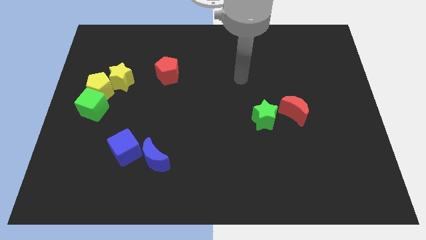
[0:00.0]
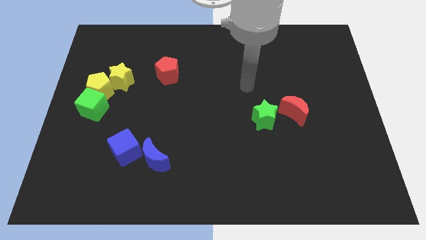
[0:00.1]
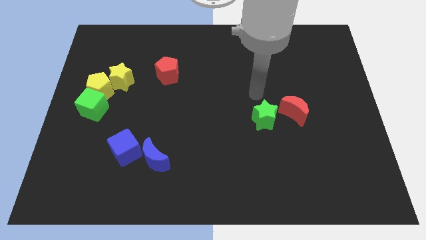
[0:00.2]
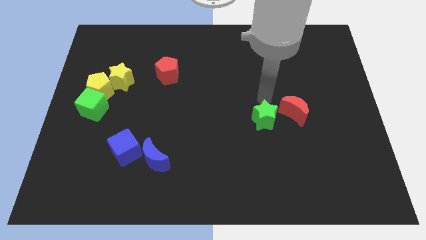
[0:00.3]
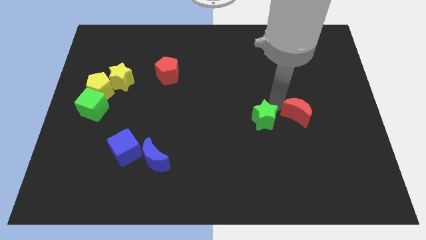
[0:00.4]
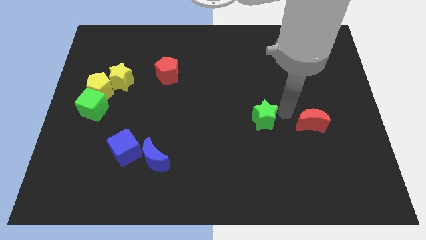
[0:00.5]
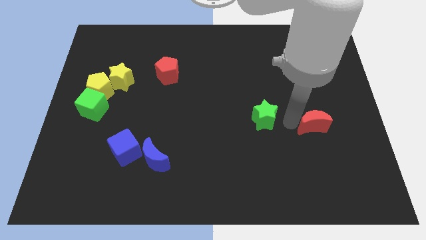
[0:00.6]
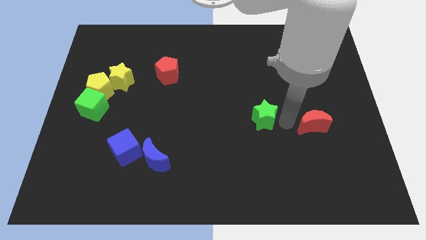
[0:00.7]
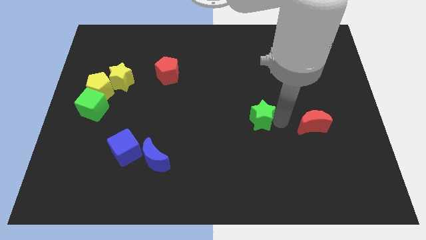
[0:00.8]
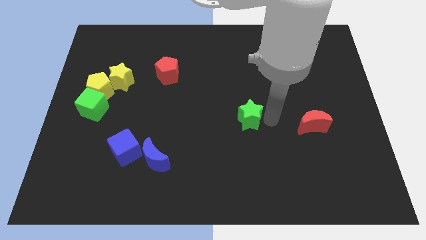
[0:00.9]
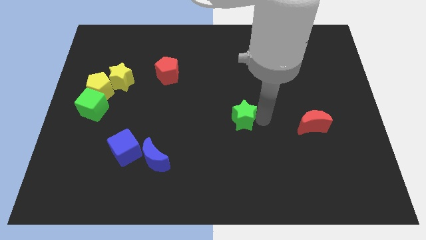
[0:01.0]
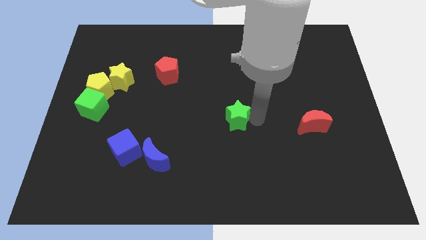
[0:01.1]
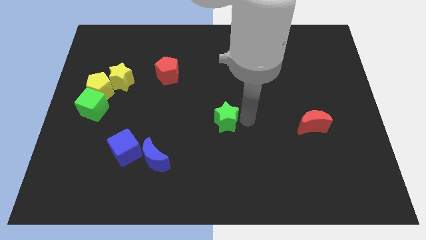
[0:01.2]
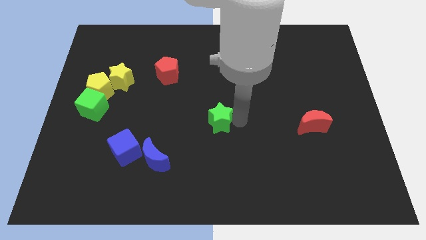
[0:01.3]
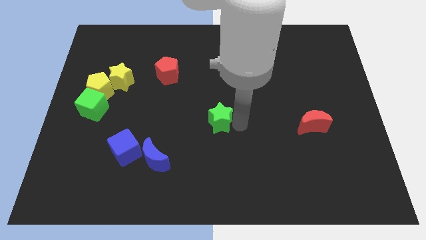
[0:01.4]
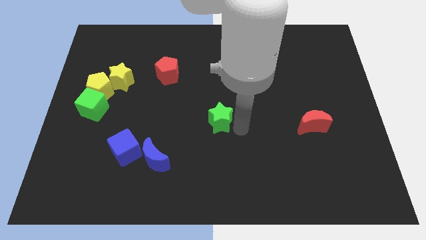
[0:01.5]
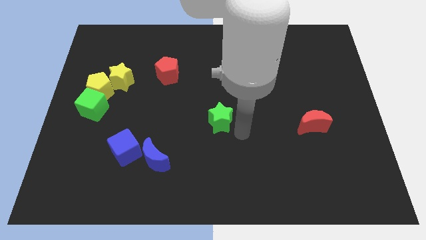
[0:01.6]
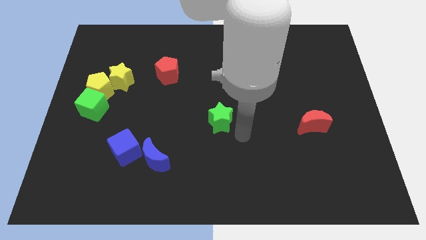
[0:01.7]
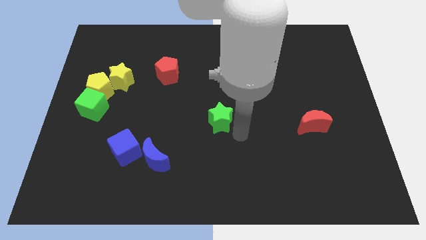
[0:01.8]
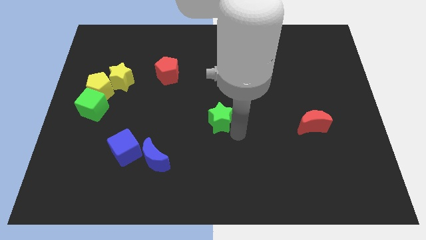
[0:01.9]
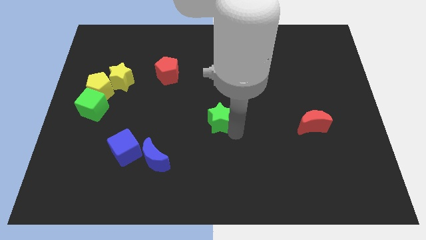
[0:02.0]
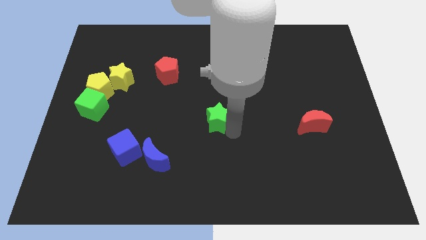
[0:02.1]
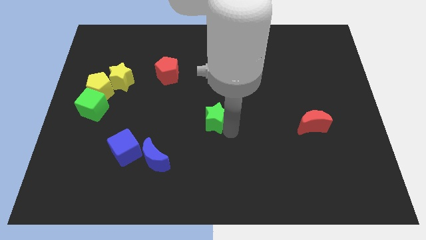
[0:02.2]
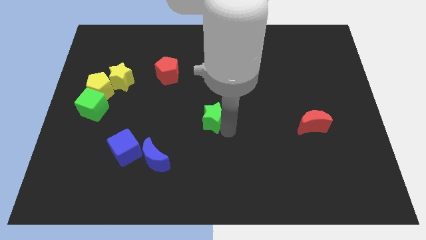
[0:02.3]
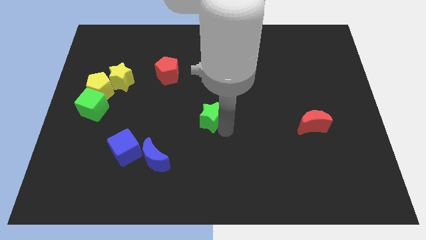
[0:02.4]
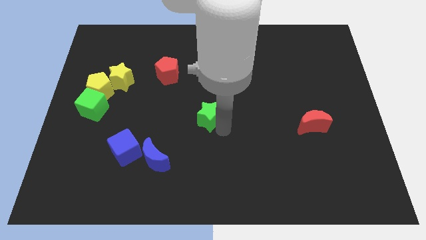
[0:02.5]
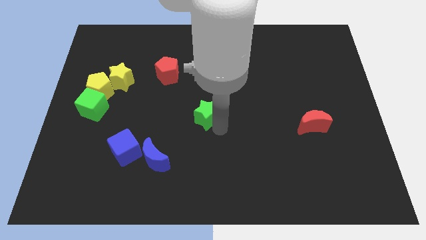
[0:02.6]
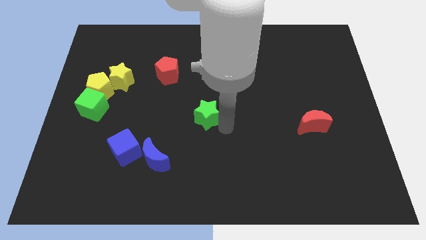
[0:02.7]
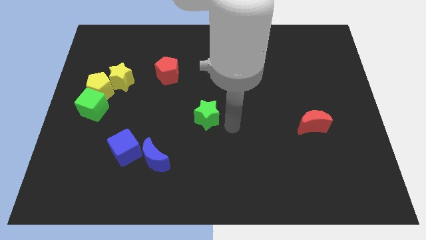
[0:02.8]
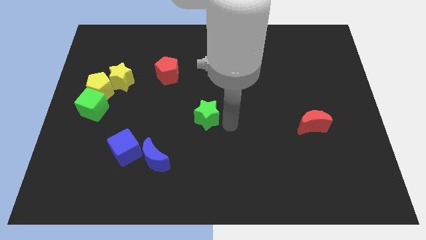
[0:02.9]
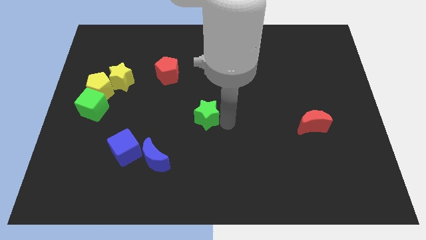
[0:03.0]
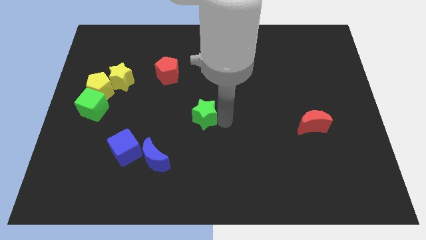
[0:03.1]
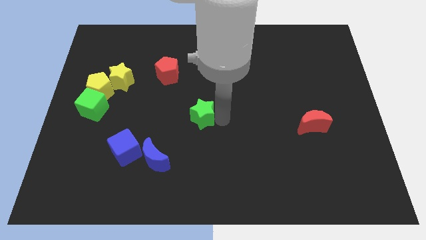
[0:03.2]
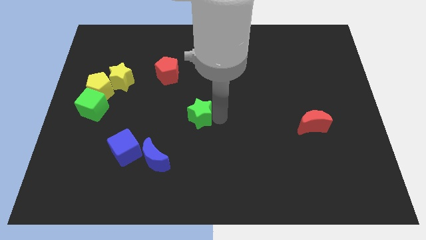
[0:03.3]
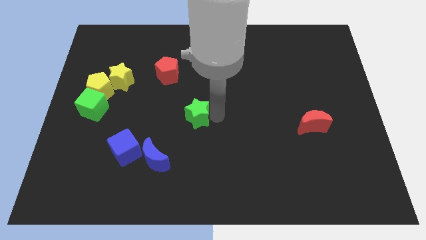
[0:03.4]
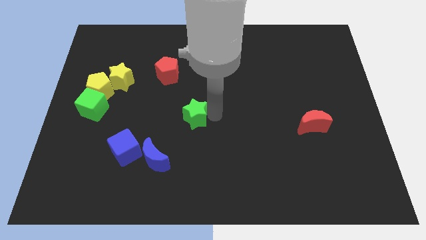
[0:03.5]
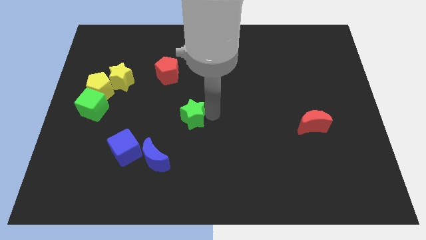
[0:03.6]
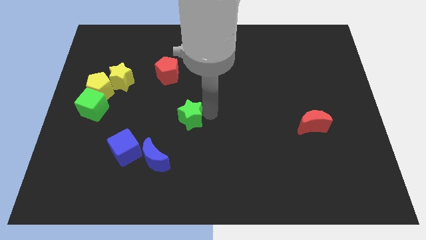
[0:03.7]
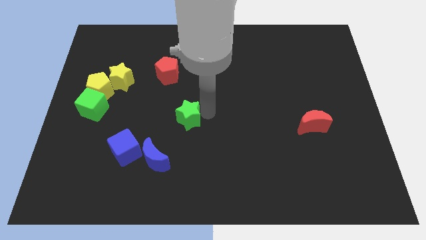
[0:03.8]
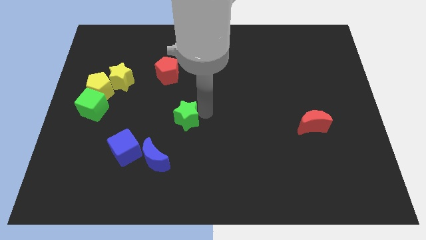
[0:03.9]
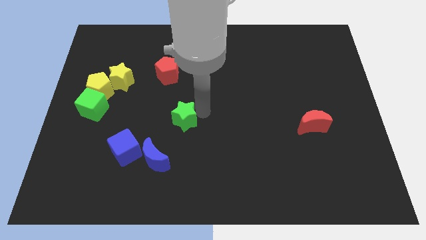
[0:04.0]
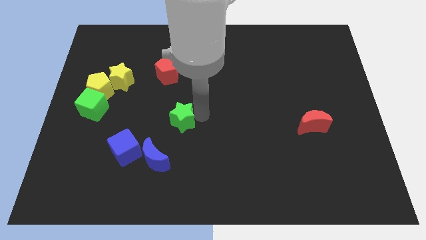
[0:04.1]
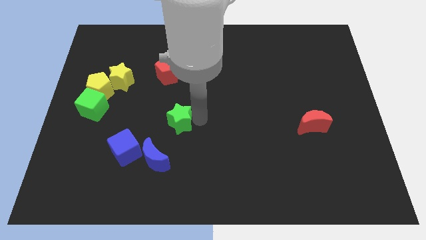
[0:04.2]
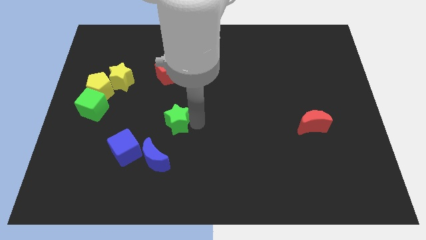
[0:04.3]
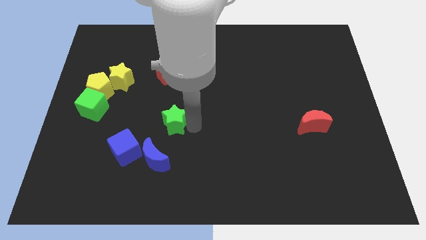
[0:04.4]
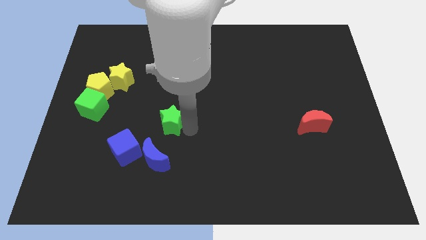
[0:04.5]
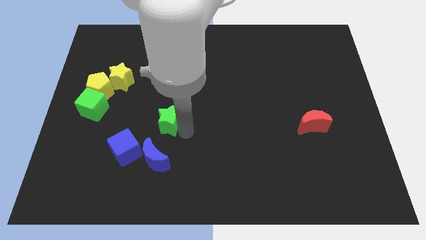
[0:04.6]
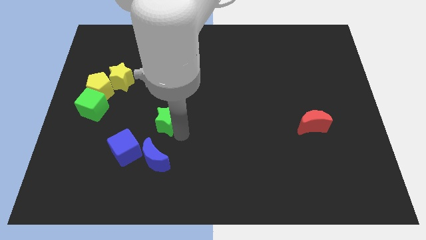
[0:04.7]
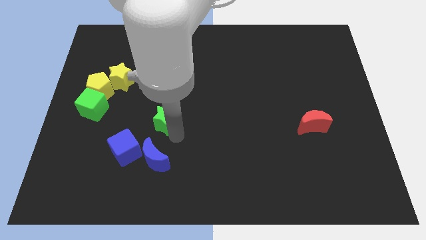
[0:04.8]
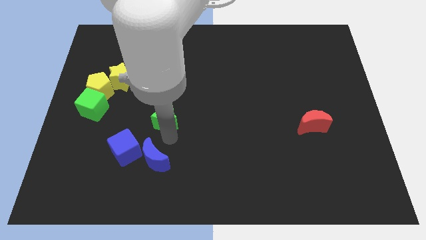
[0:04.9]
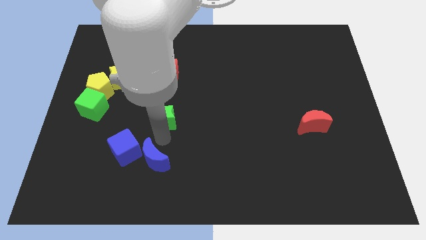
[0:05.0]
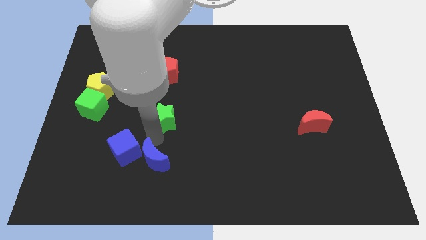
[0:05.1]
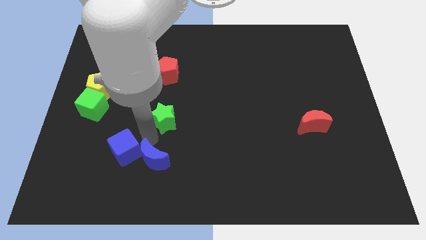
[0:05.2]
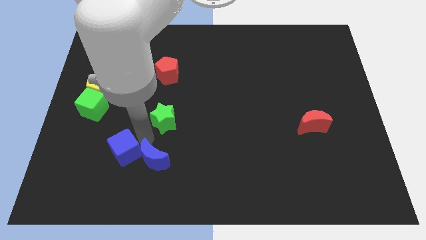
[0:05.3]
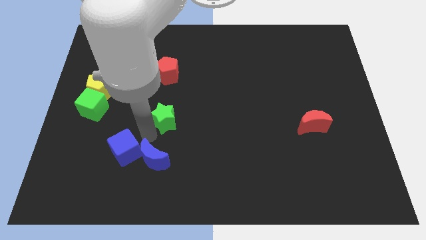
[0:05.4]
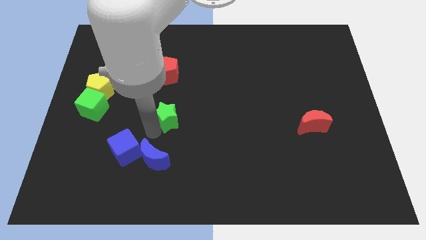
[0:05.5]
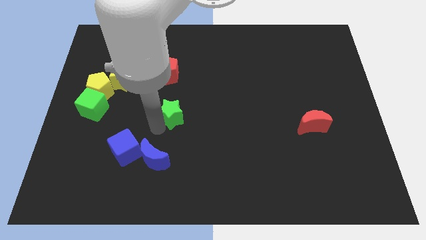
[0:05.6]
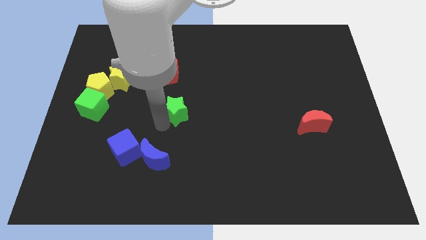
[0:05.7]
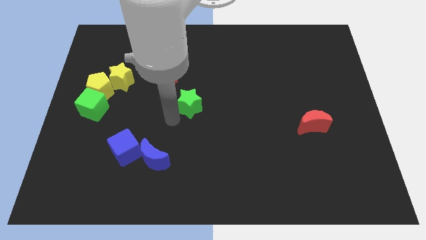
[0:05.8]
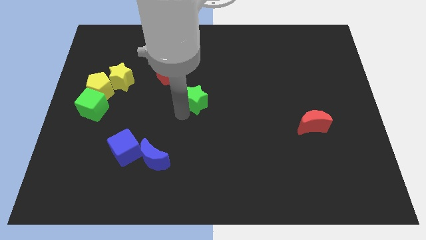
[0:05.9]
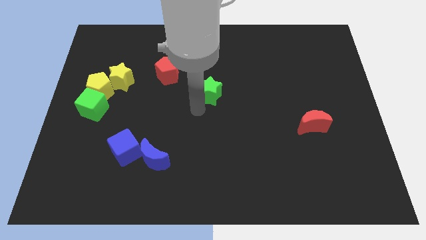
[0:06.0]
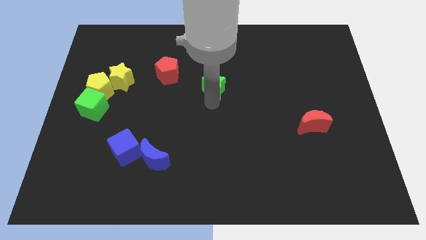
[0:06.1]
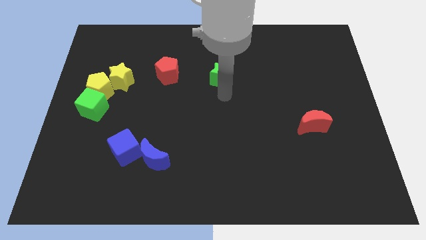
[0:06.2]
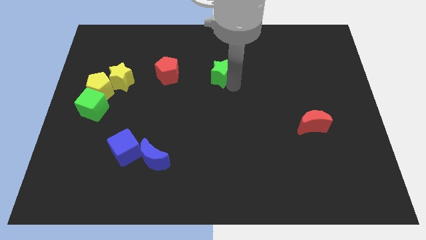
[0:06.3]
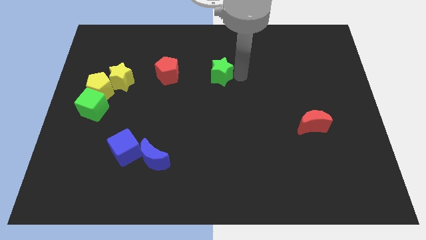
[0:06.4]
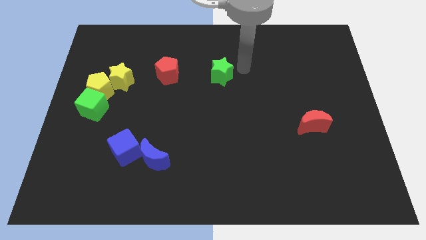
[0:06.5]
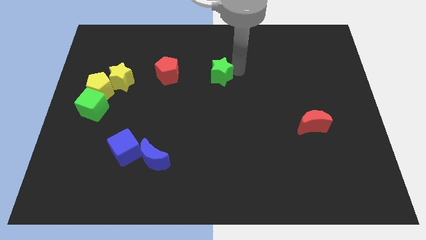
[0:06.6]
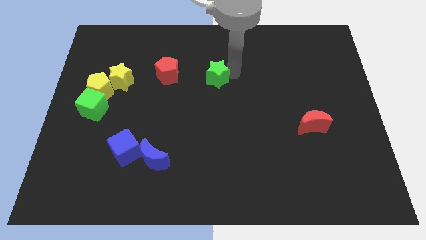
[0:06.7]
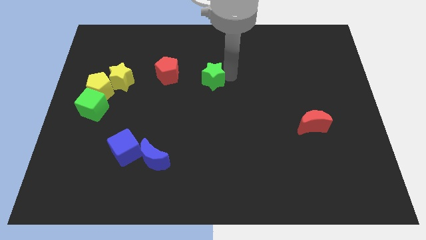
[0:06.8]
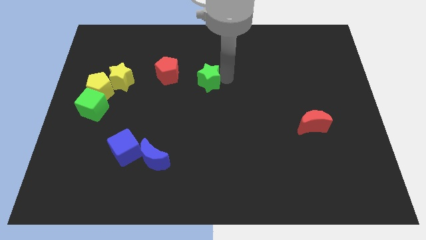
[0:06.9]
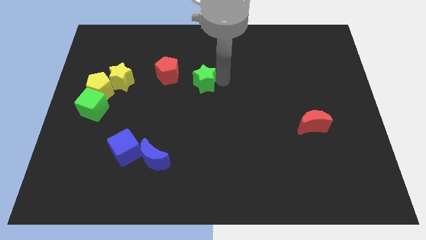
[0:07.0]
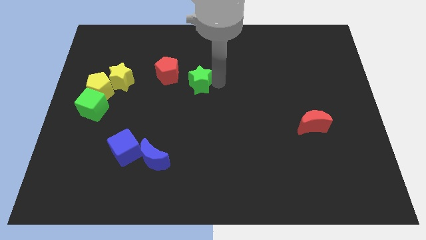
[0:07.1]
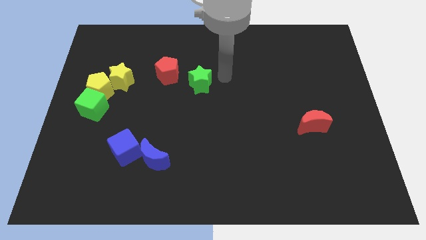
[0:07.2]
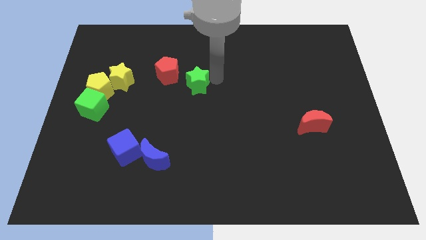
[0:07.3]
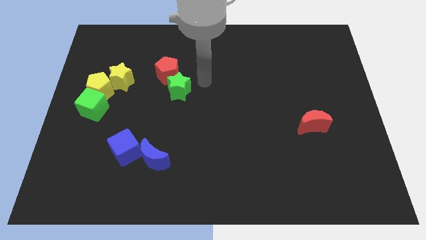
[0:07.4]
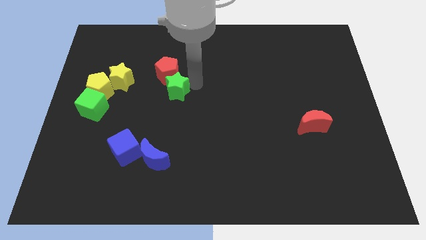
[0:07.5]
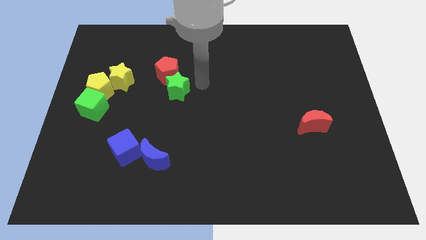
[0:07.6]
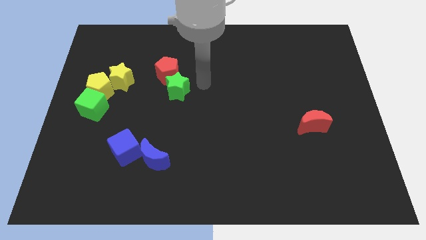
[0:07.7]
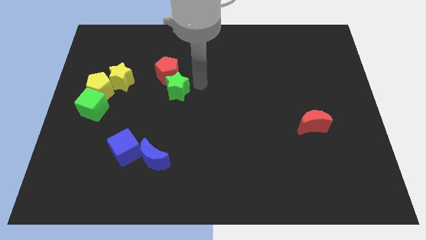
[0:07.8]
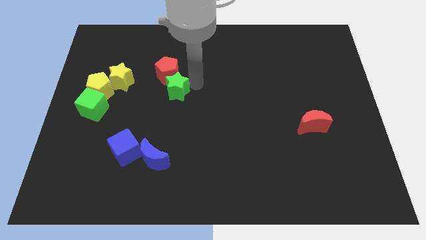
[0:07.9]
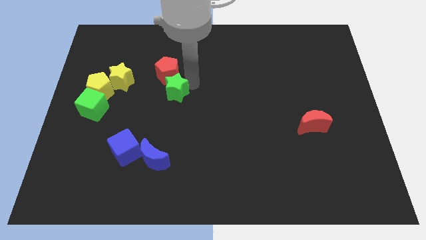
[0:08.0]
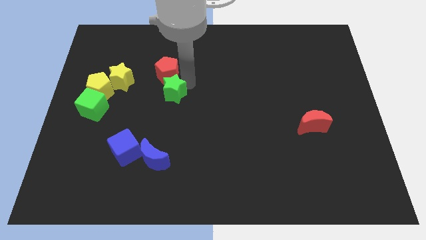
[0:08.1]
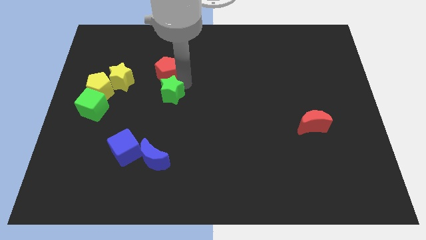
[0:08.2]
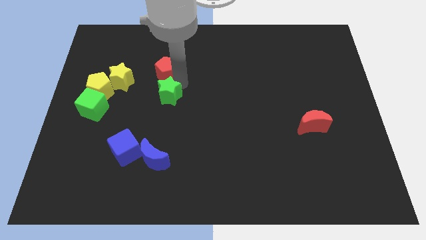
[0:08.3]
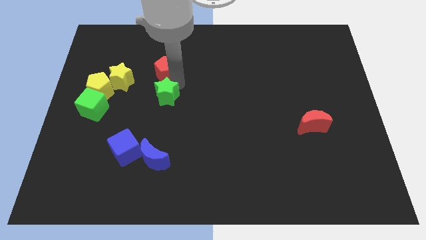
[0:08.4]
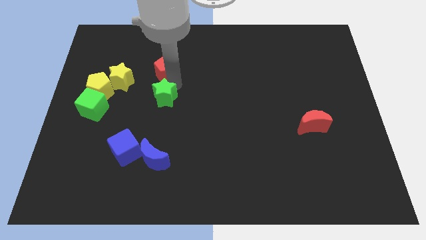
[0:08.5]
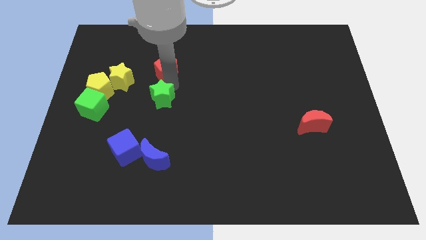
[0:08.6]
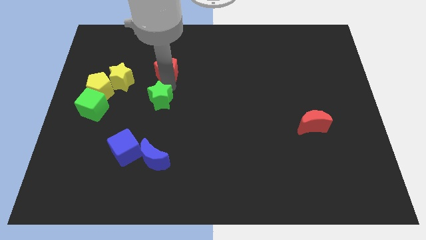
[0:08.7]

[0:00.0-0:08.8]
push the green star to the bottom right of the yellow star
